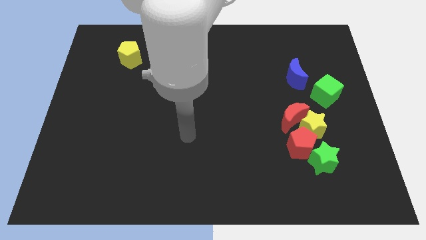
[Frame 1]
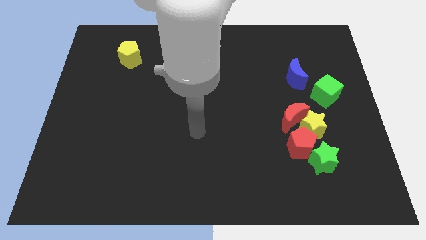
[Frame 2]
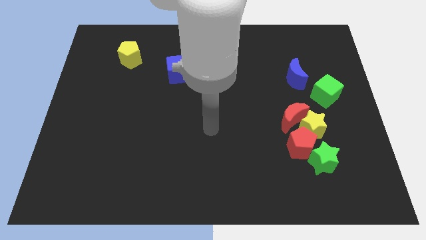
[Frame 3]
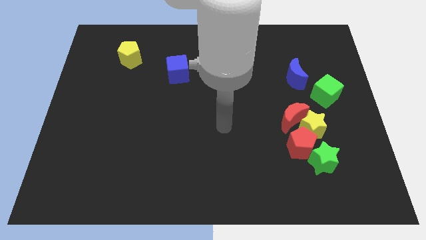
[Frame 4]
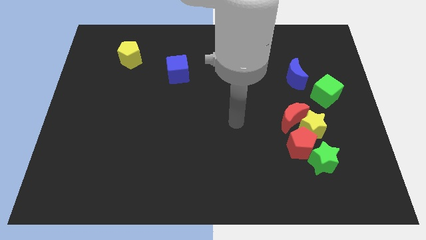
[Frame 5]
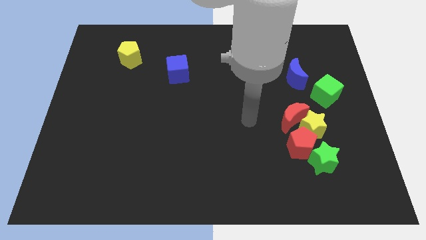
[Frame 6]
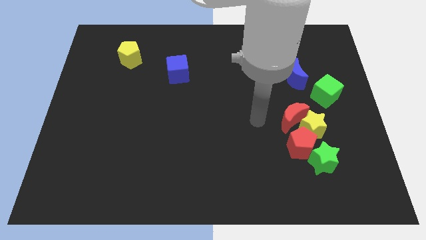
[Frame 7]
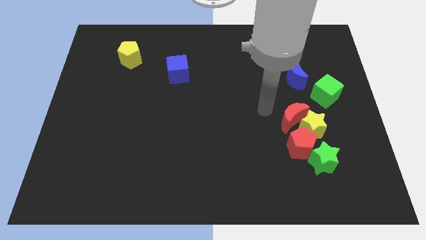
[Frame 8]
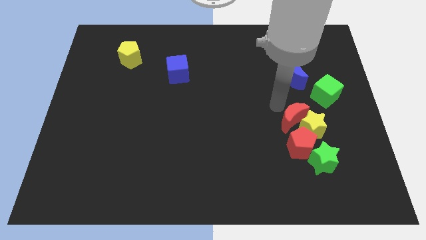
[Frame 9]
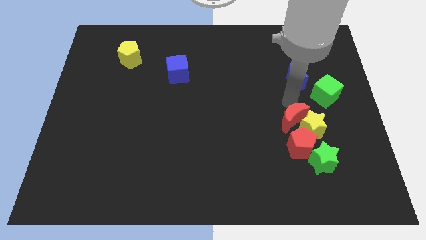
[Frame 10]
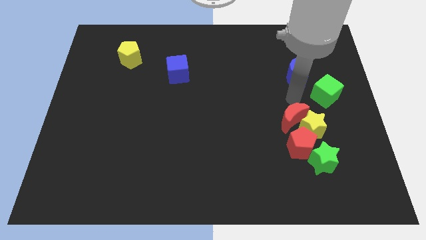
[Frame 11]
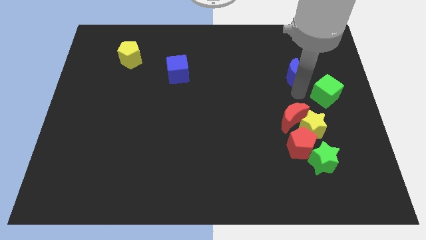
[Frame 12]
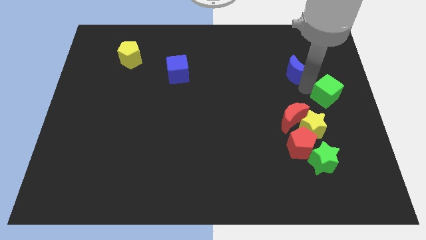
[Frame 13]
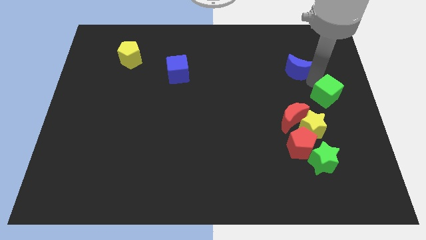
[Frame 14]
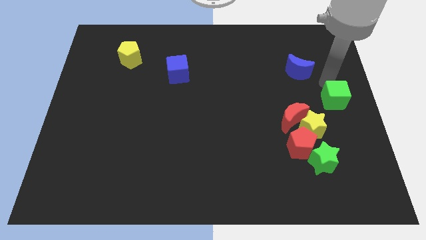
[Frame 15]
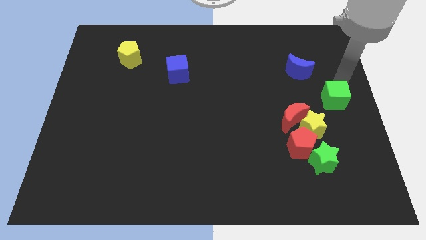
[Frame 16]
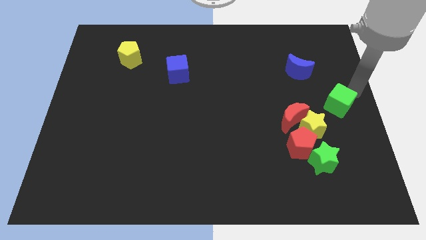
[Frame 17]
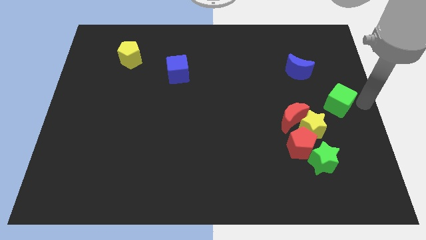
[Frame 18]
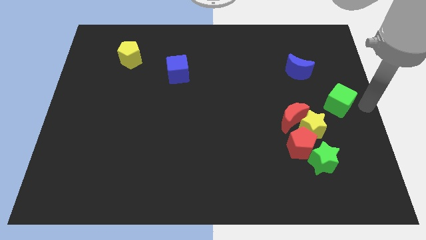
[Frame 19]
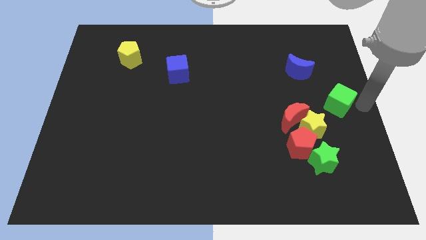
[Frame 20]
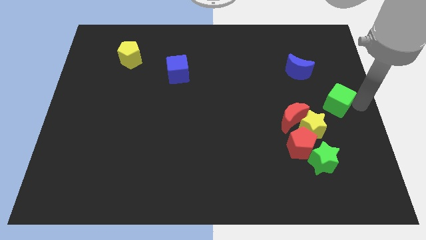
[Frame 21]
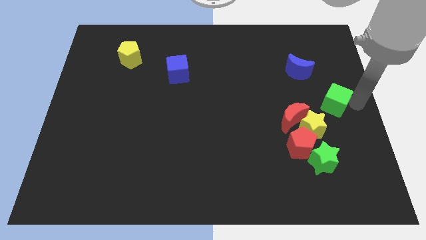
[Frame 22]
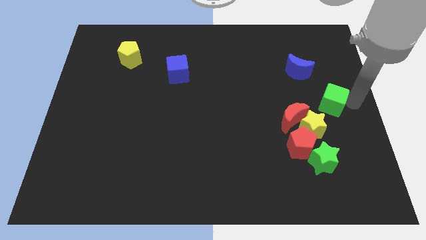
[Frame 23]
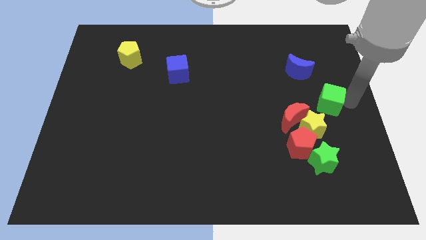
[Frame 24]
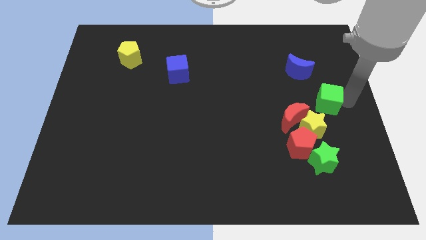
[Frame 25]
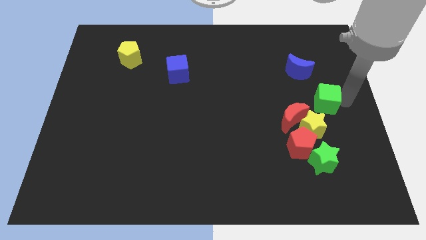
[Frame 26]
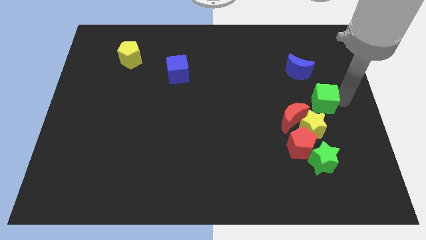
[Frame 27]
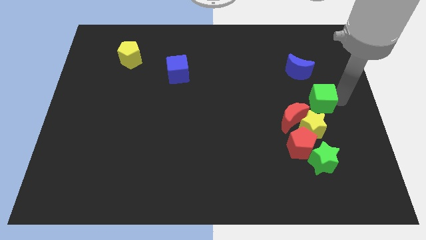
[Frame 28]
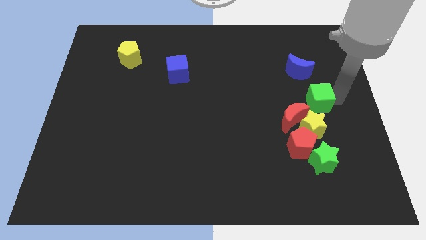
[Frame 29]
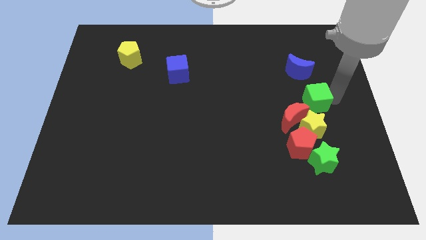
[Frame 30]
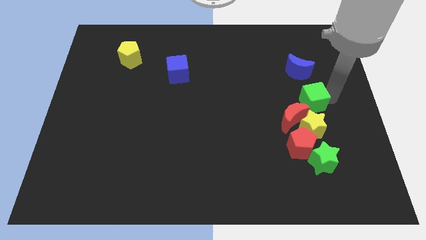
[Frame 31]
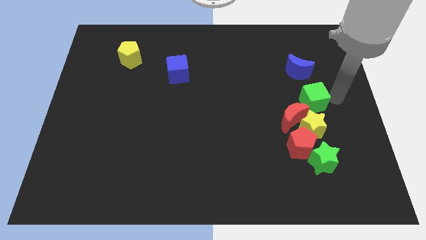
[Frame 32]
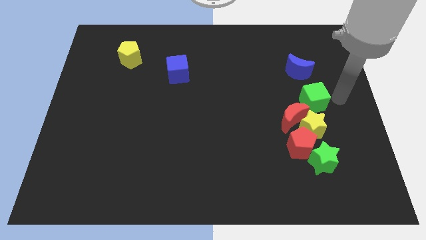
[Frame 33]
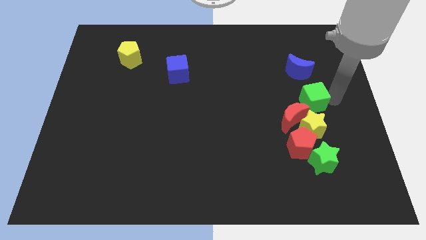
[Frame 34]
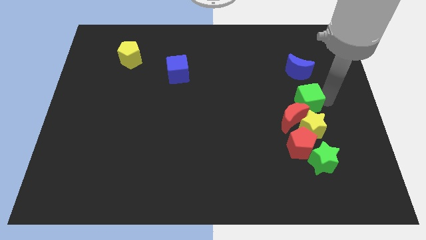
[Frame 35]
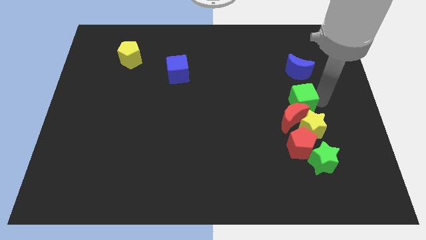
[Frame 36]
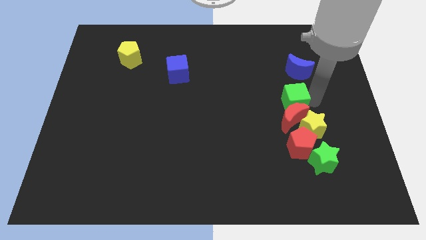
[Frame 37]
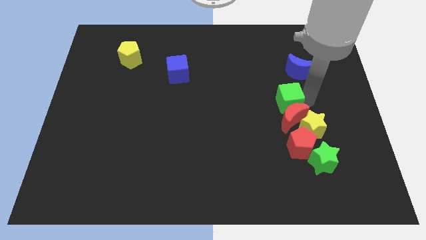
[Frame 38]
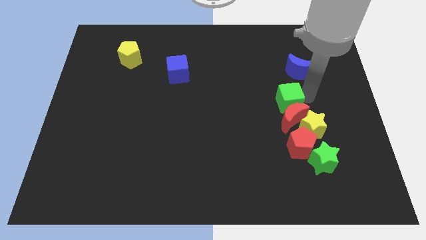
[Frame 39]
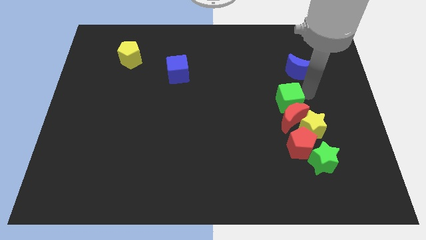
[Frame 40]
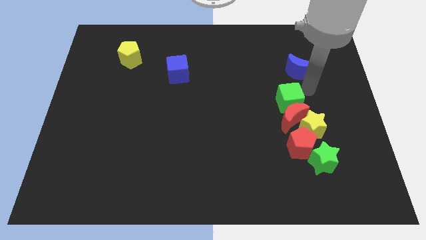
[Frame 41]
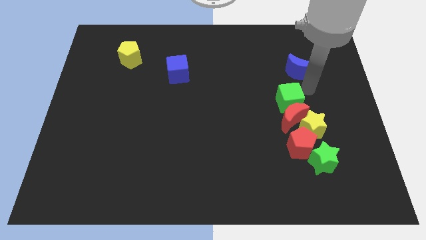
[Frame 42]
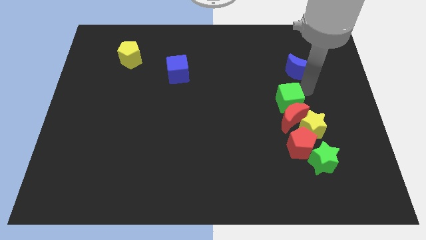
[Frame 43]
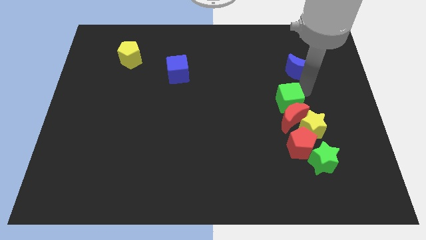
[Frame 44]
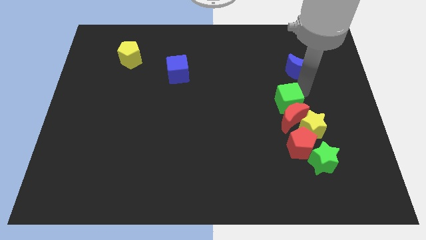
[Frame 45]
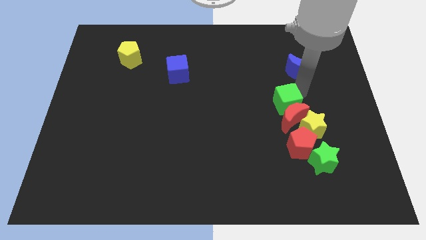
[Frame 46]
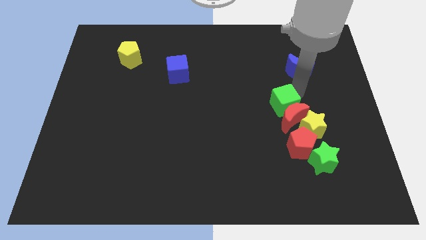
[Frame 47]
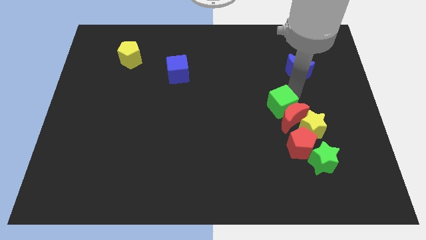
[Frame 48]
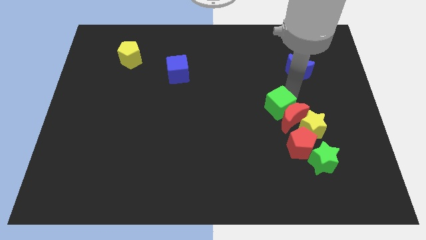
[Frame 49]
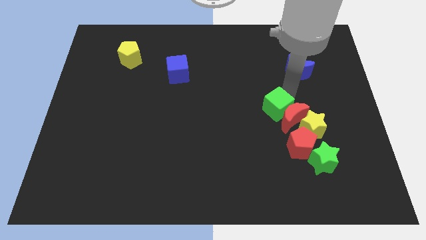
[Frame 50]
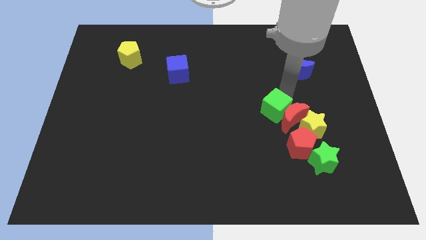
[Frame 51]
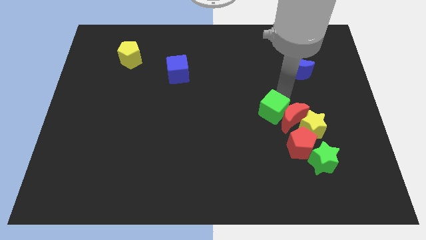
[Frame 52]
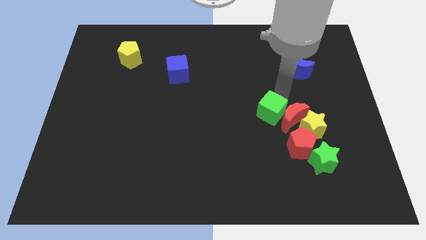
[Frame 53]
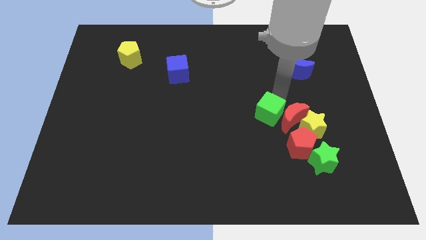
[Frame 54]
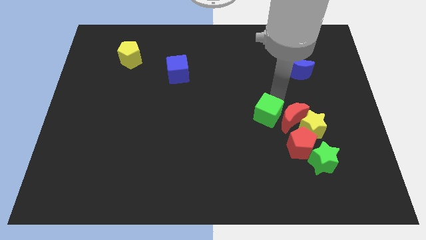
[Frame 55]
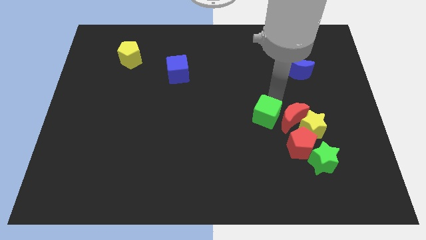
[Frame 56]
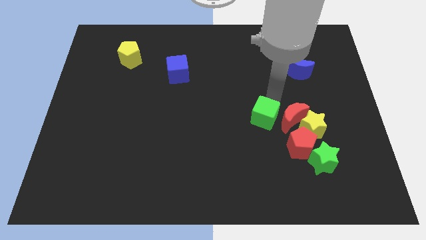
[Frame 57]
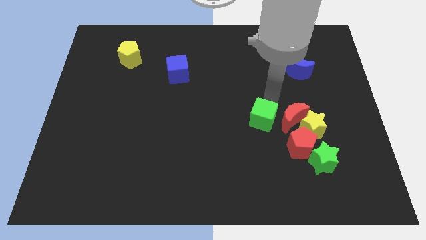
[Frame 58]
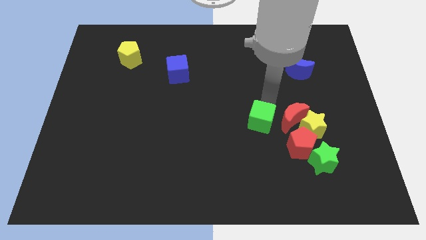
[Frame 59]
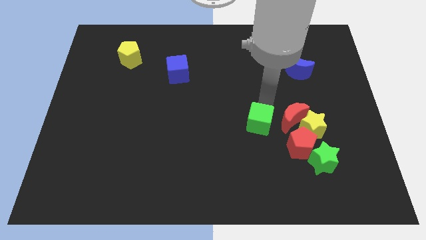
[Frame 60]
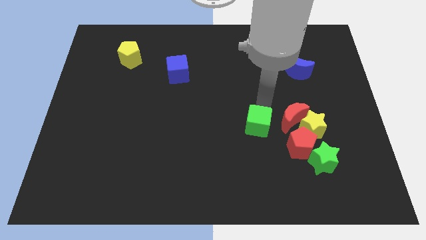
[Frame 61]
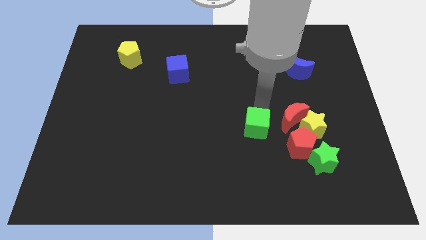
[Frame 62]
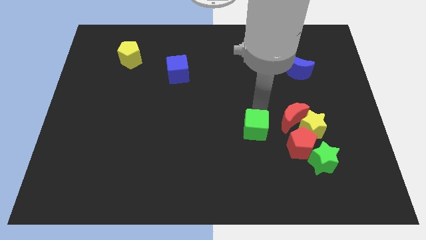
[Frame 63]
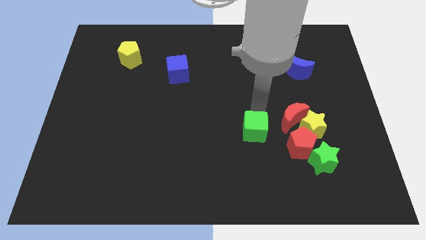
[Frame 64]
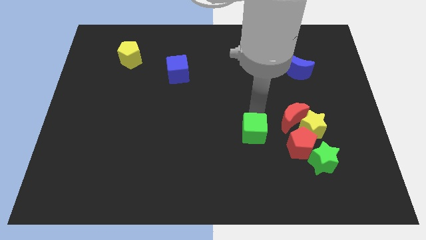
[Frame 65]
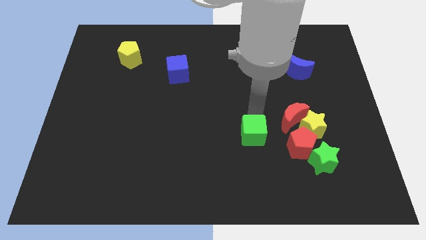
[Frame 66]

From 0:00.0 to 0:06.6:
slide the green cube down and then left

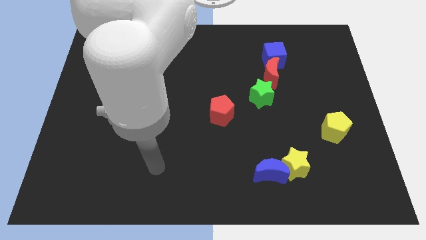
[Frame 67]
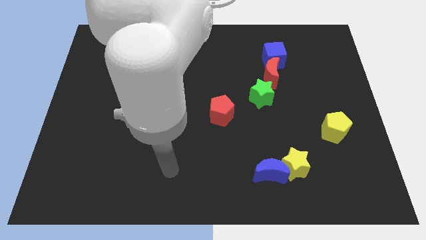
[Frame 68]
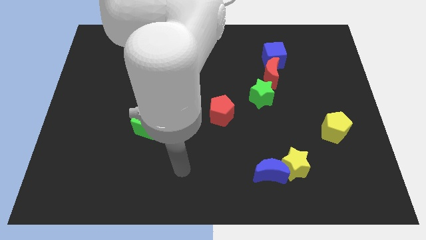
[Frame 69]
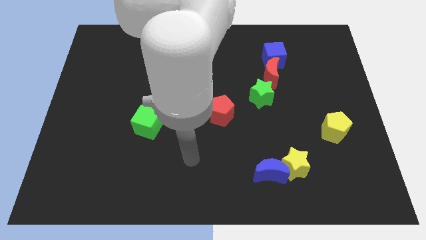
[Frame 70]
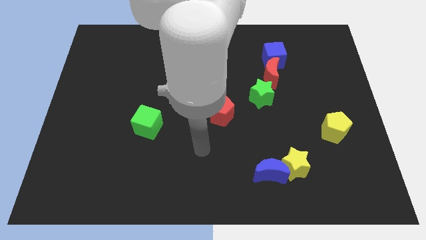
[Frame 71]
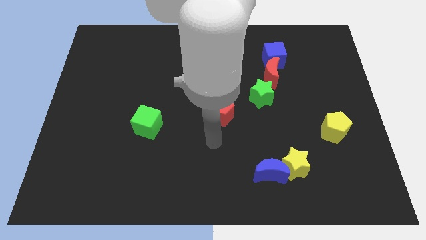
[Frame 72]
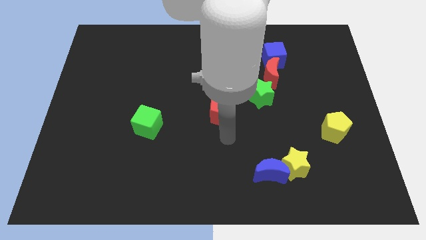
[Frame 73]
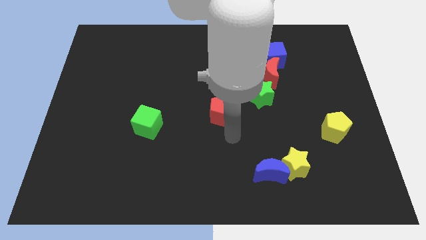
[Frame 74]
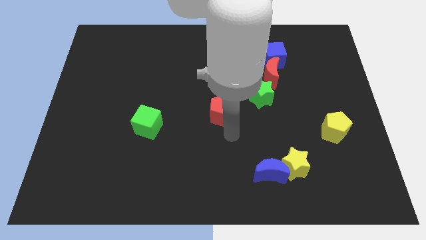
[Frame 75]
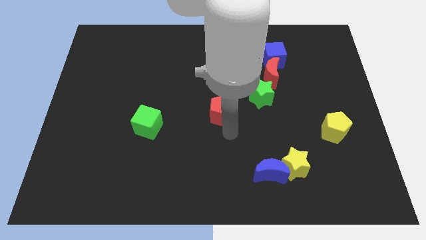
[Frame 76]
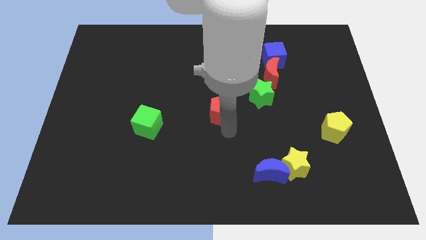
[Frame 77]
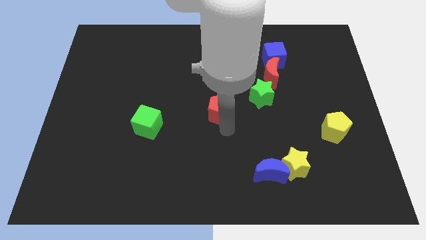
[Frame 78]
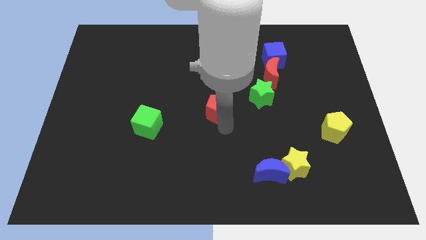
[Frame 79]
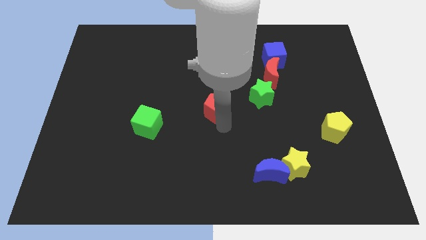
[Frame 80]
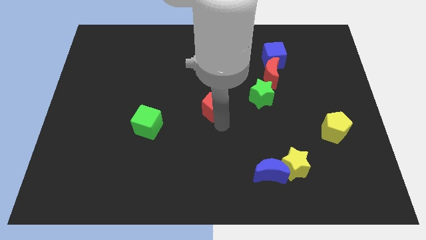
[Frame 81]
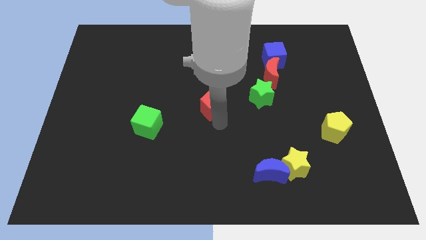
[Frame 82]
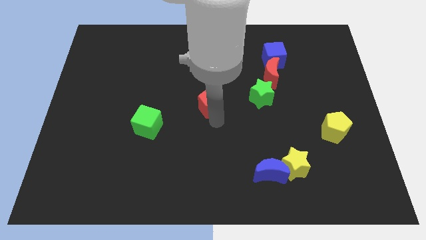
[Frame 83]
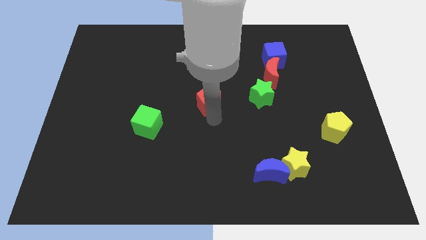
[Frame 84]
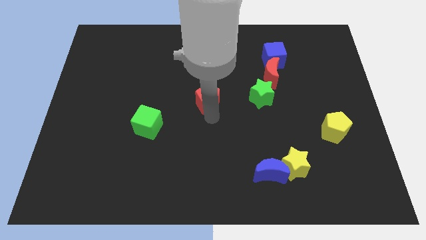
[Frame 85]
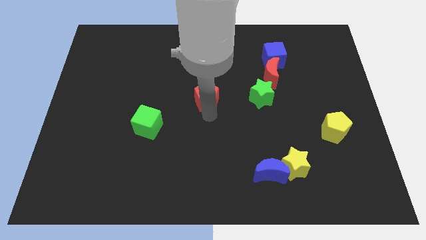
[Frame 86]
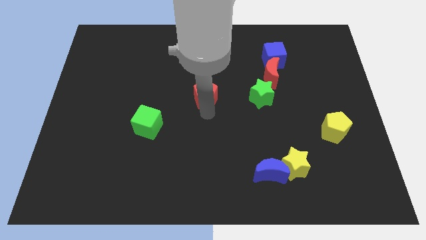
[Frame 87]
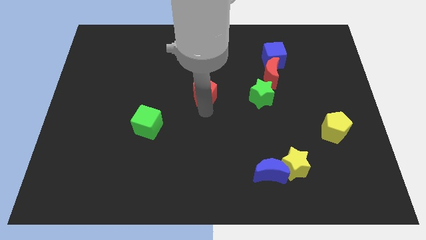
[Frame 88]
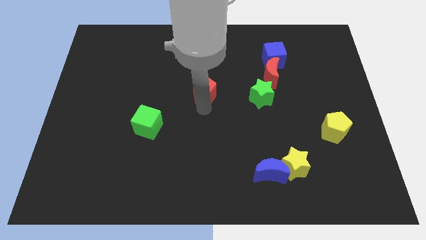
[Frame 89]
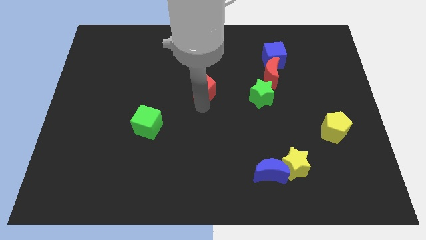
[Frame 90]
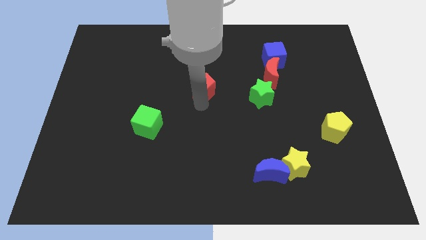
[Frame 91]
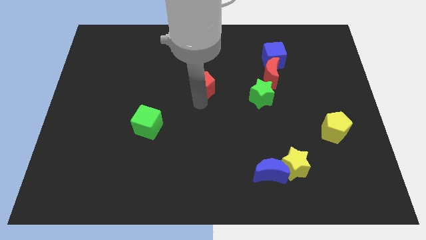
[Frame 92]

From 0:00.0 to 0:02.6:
move the red pentagon slightly upwards
